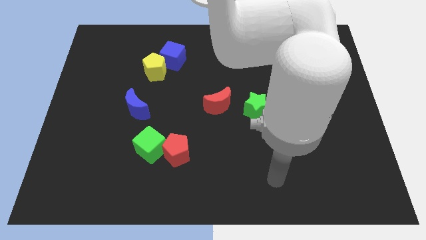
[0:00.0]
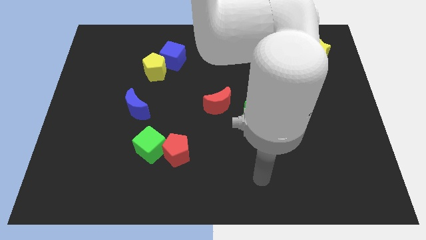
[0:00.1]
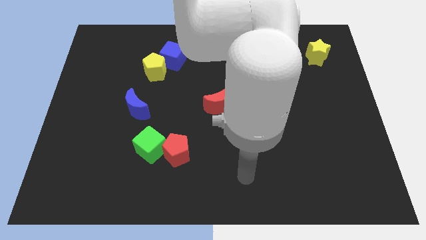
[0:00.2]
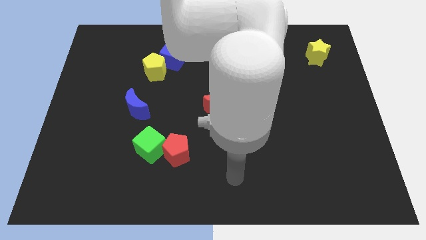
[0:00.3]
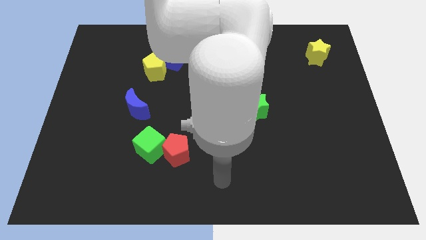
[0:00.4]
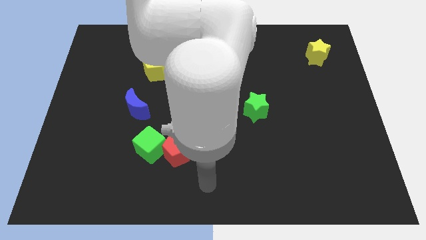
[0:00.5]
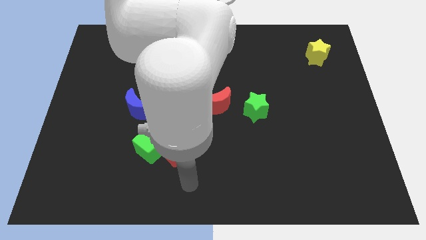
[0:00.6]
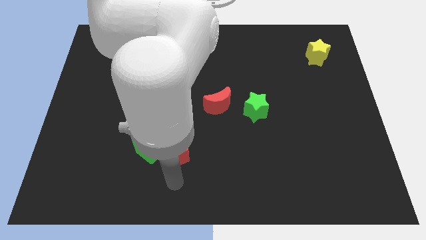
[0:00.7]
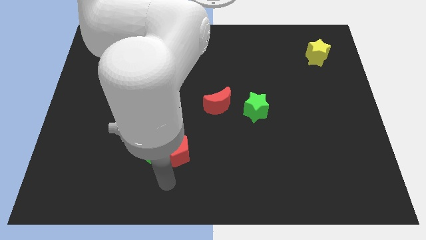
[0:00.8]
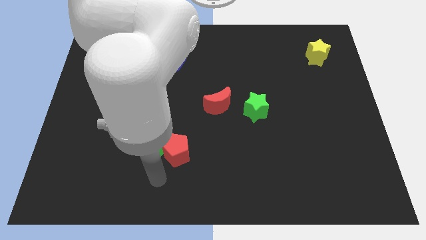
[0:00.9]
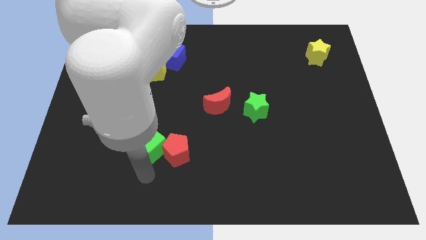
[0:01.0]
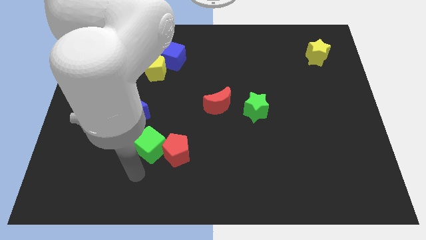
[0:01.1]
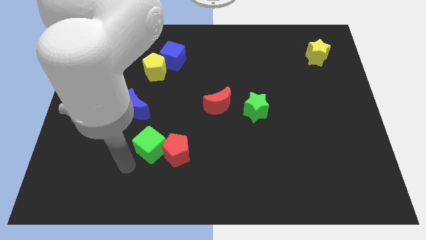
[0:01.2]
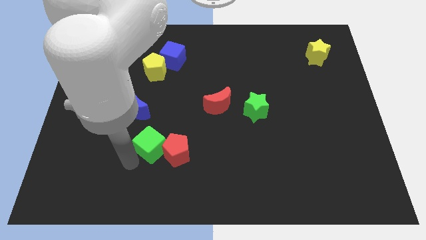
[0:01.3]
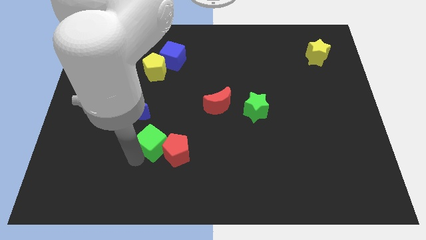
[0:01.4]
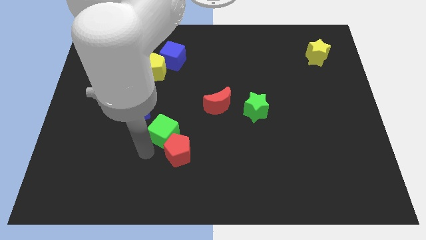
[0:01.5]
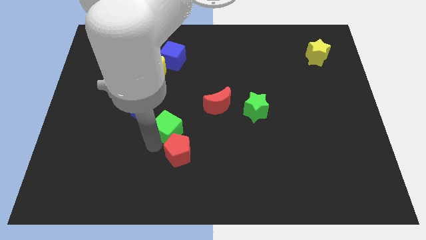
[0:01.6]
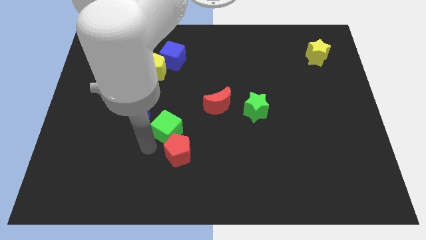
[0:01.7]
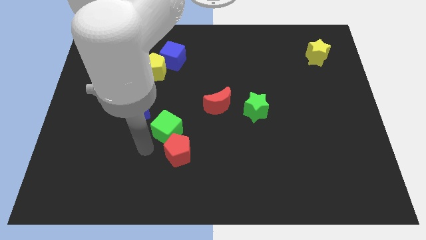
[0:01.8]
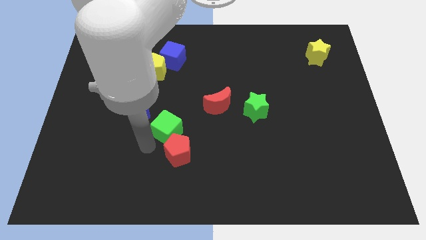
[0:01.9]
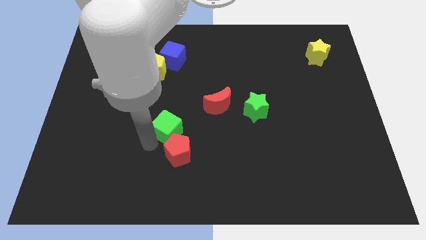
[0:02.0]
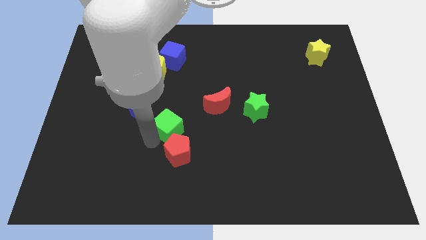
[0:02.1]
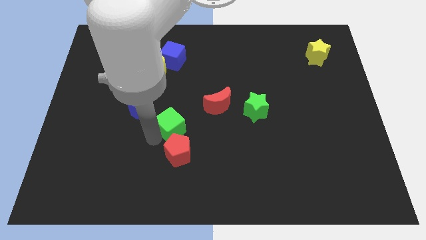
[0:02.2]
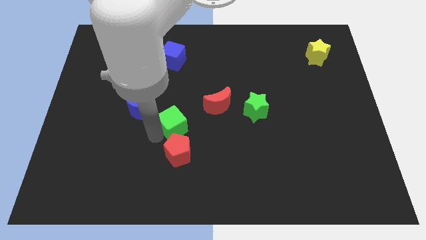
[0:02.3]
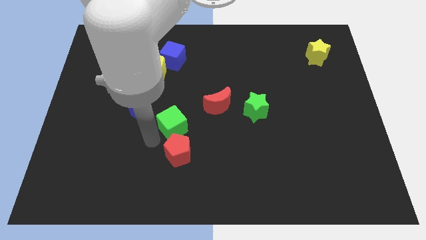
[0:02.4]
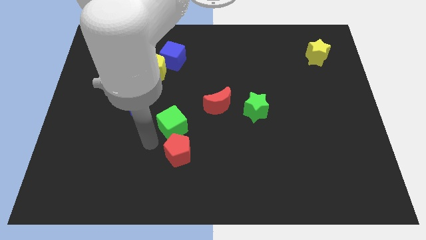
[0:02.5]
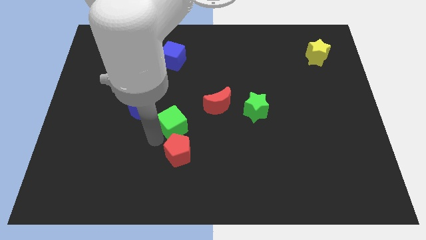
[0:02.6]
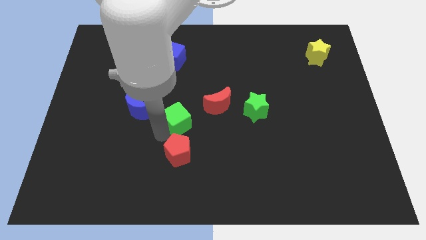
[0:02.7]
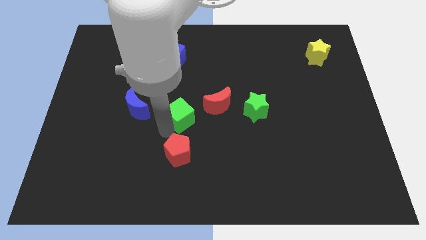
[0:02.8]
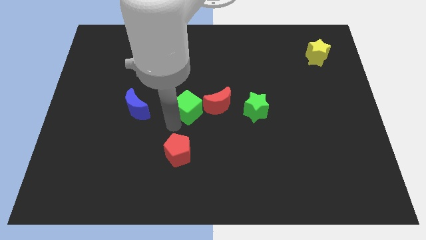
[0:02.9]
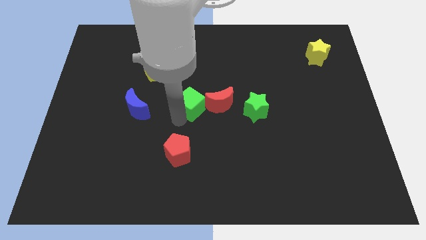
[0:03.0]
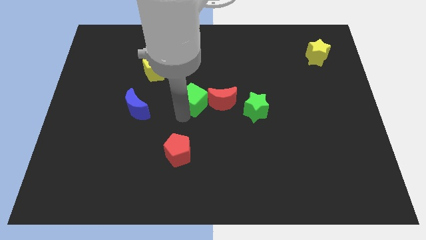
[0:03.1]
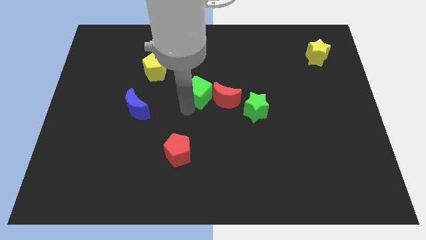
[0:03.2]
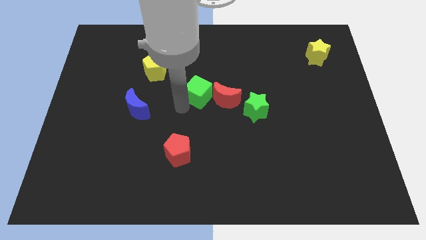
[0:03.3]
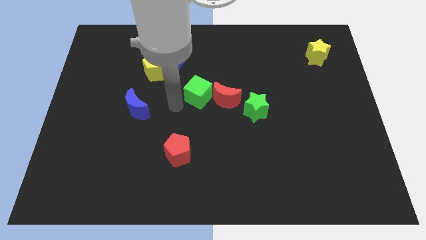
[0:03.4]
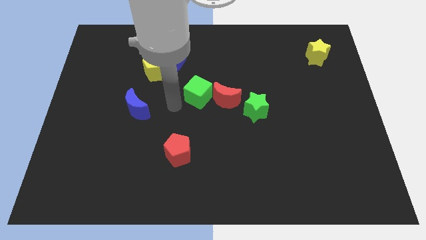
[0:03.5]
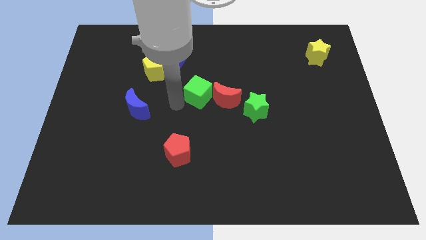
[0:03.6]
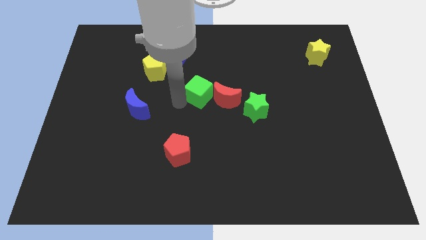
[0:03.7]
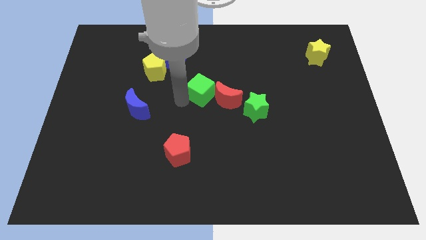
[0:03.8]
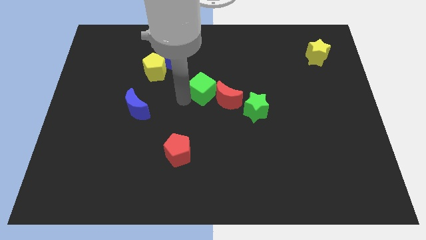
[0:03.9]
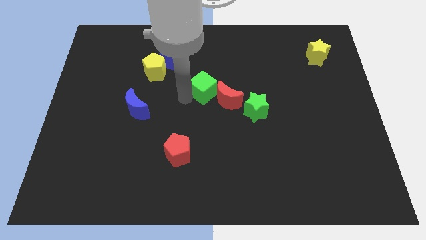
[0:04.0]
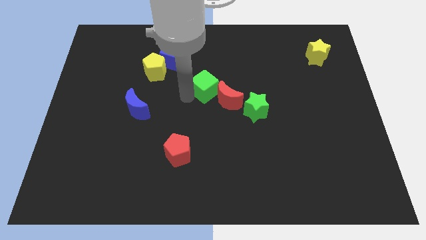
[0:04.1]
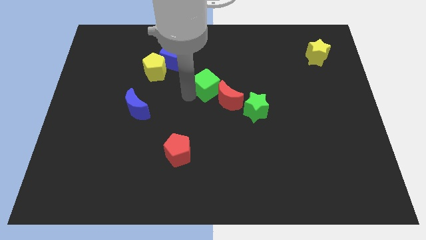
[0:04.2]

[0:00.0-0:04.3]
slide the green cube upwards and right diagonally

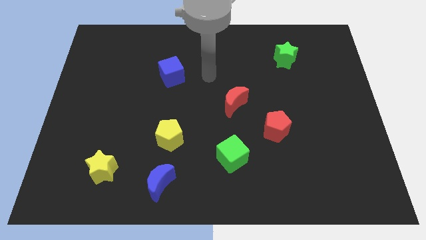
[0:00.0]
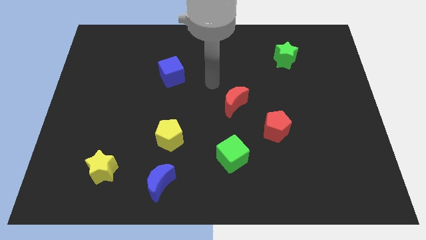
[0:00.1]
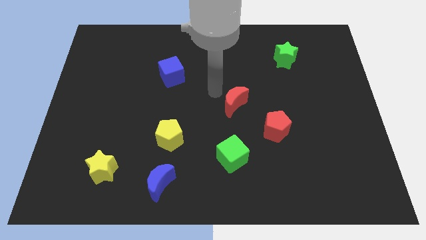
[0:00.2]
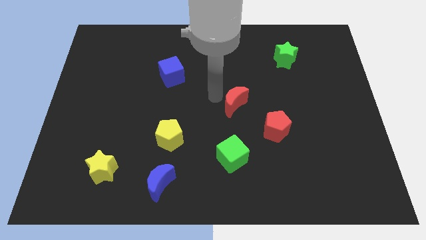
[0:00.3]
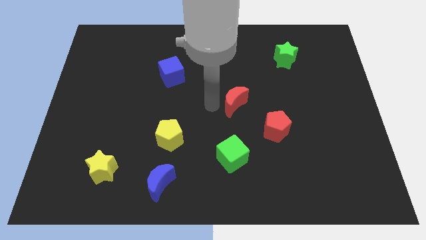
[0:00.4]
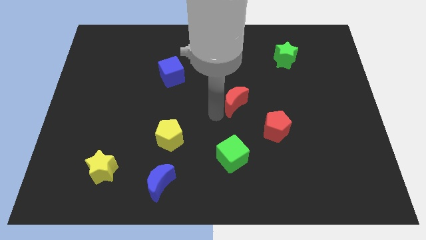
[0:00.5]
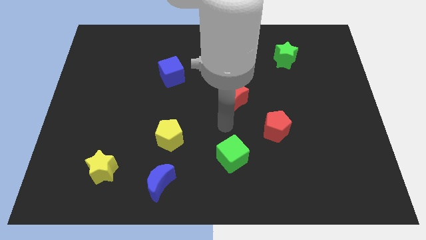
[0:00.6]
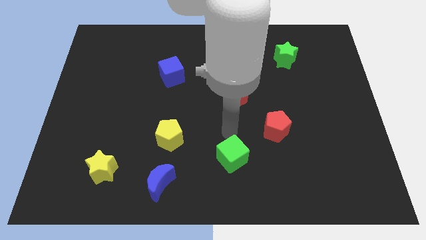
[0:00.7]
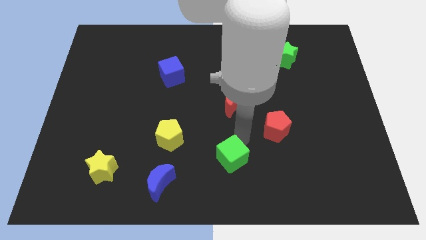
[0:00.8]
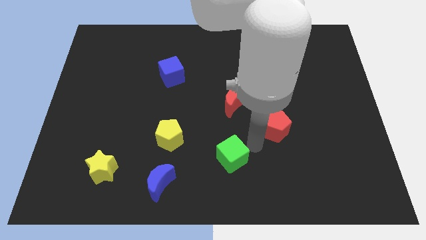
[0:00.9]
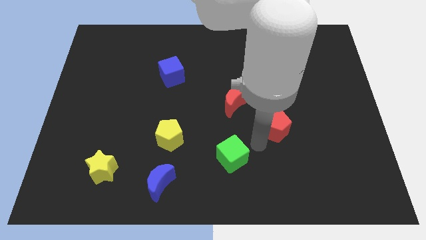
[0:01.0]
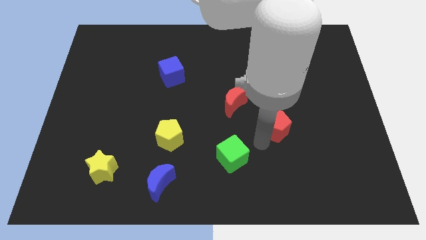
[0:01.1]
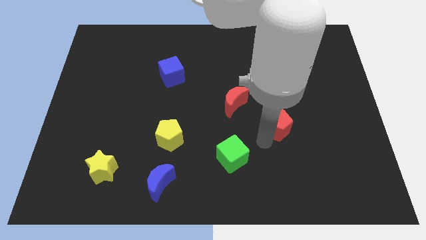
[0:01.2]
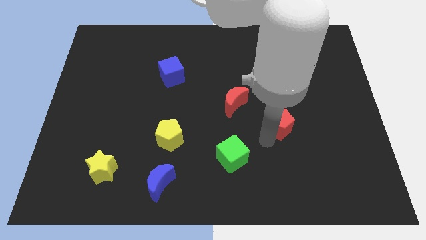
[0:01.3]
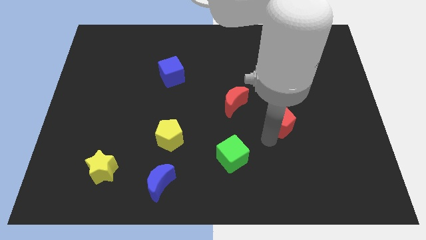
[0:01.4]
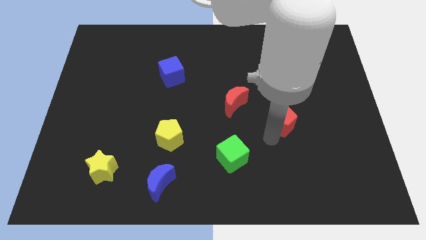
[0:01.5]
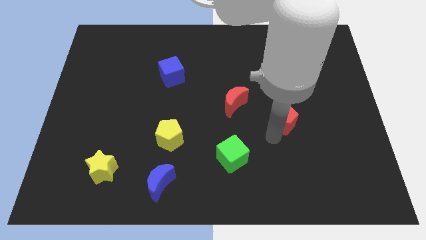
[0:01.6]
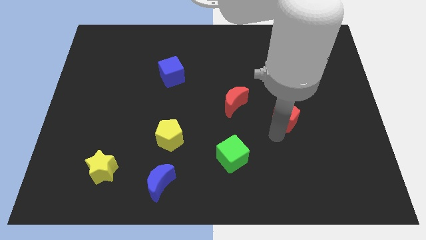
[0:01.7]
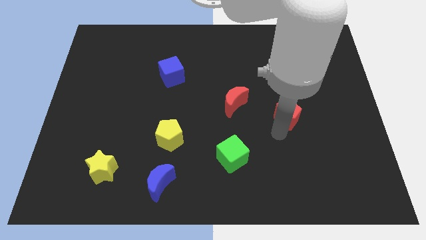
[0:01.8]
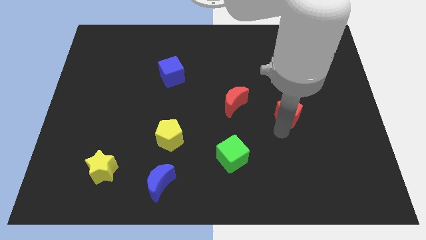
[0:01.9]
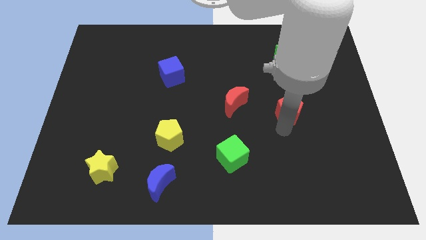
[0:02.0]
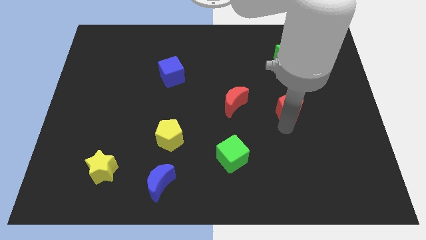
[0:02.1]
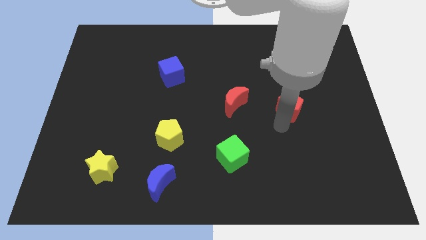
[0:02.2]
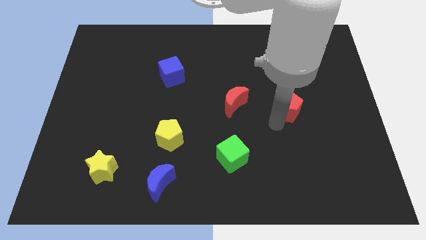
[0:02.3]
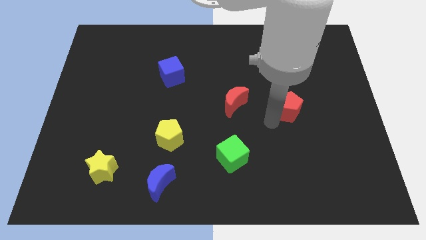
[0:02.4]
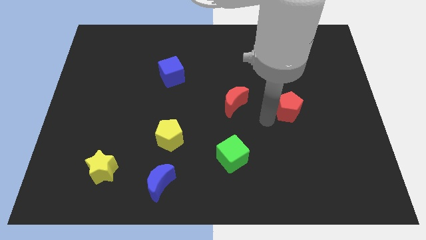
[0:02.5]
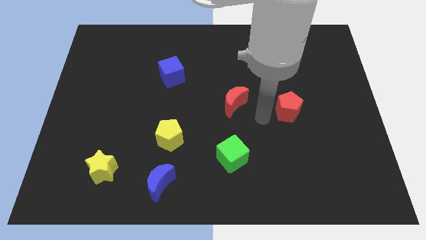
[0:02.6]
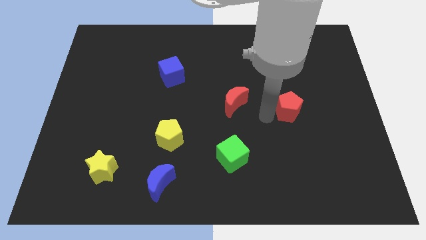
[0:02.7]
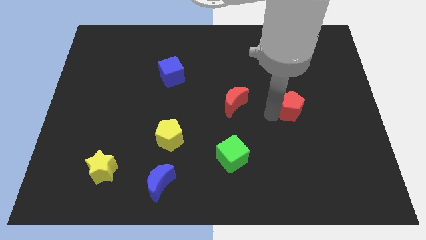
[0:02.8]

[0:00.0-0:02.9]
move the red pentagon up and then to the right a bit

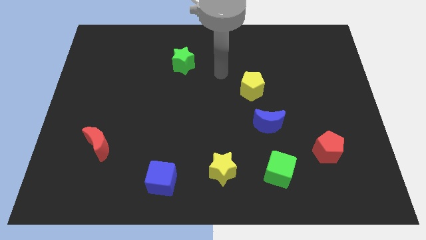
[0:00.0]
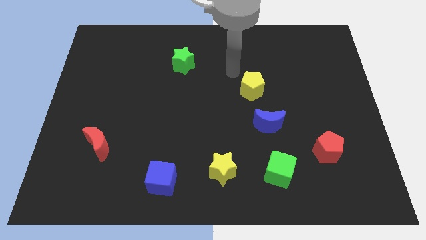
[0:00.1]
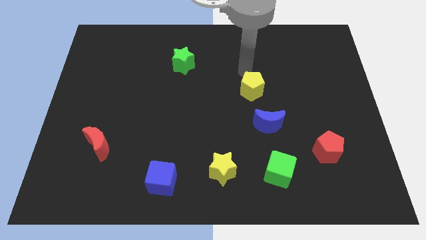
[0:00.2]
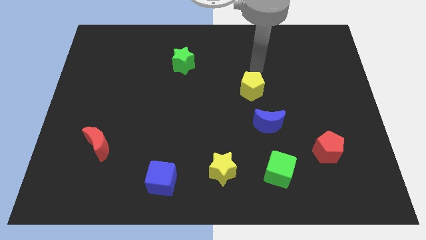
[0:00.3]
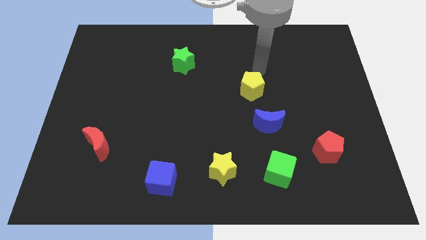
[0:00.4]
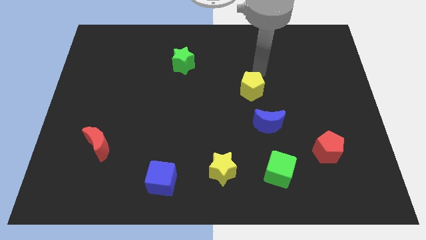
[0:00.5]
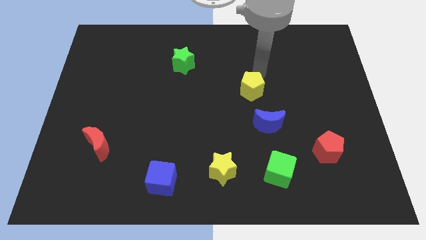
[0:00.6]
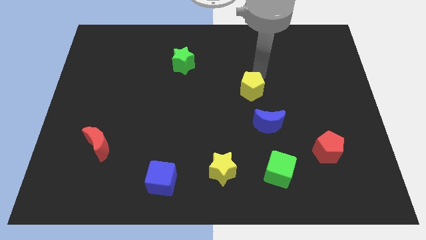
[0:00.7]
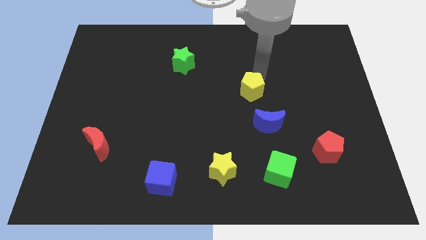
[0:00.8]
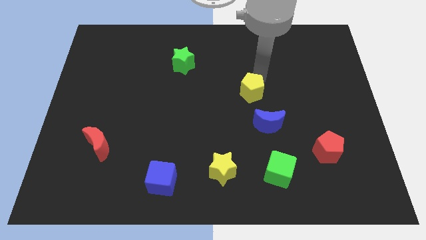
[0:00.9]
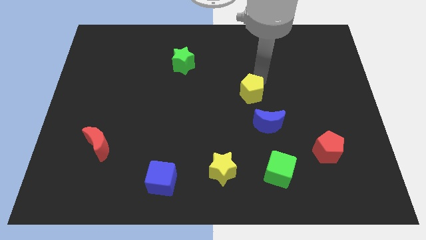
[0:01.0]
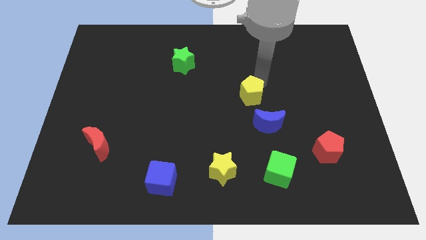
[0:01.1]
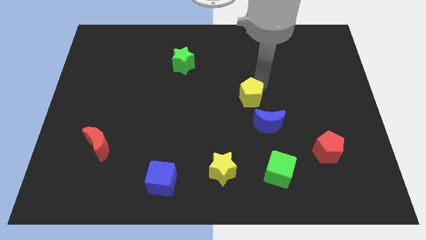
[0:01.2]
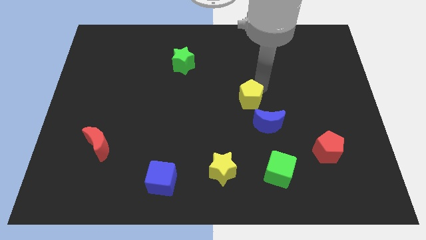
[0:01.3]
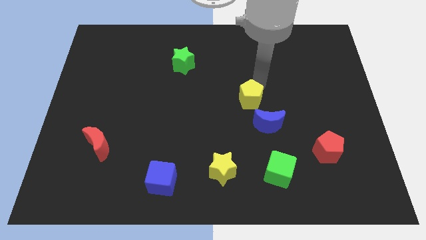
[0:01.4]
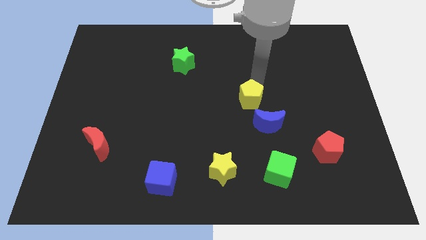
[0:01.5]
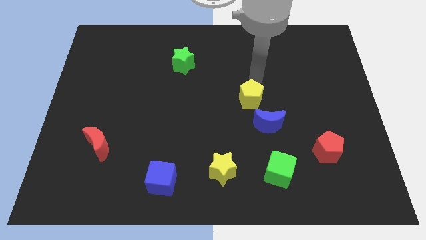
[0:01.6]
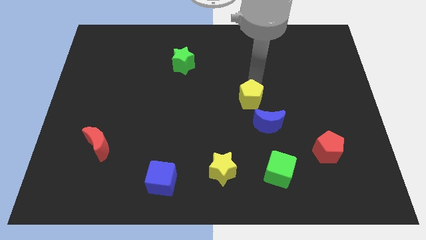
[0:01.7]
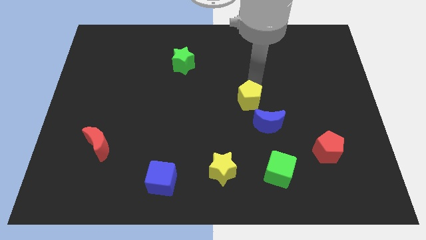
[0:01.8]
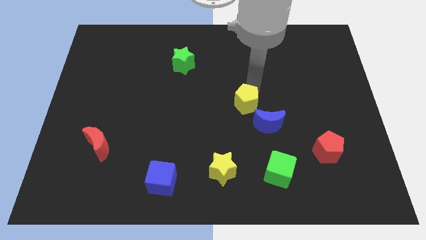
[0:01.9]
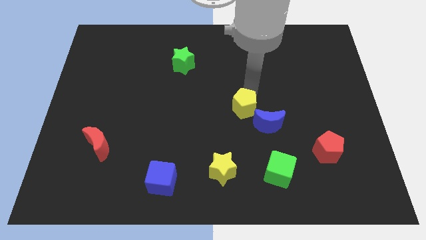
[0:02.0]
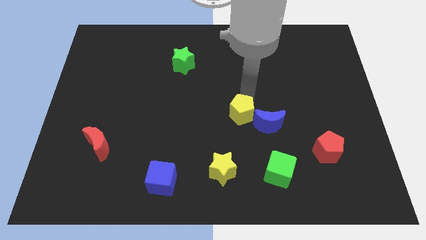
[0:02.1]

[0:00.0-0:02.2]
push the yellow pentagon down slightly
